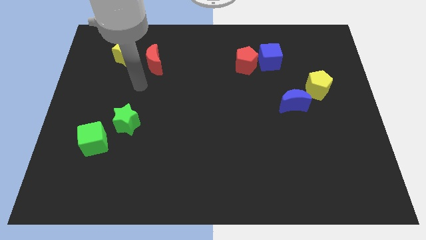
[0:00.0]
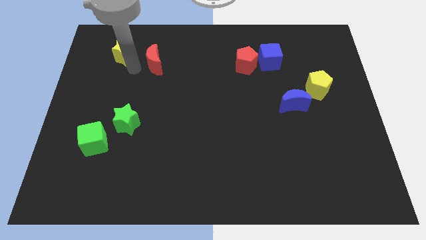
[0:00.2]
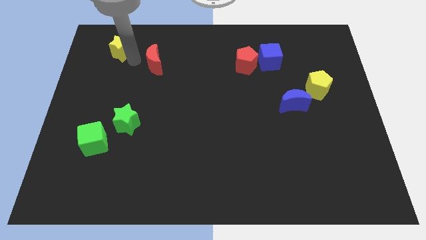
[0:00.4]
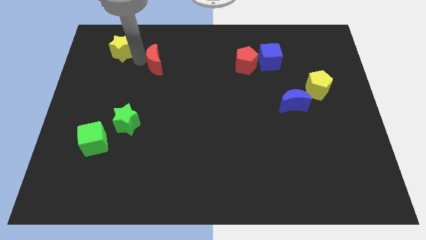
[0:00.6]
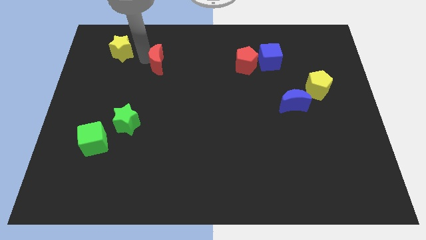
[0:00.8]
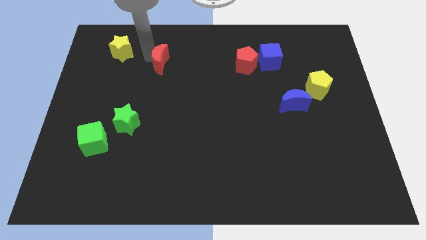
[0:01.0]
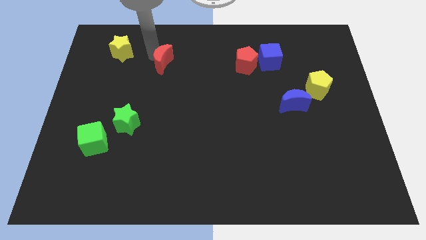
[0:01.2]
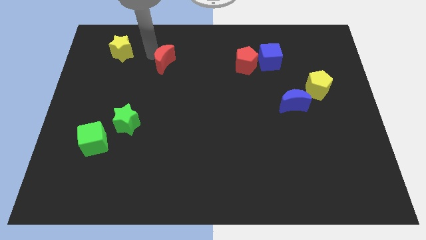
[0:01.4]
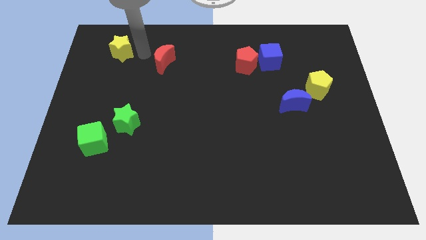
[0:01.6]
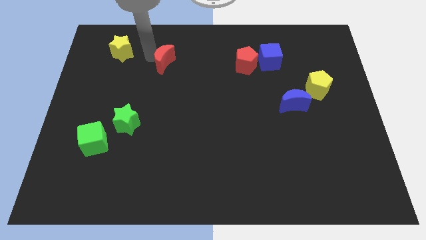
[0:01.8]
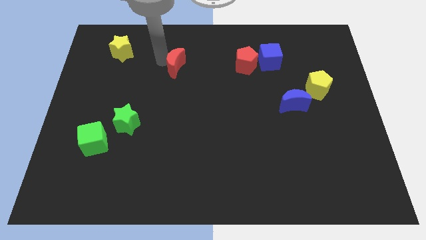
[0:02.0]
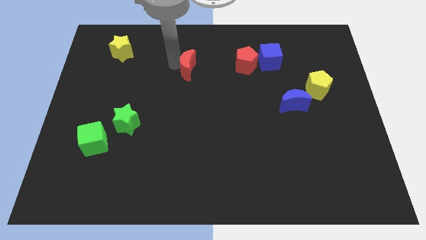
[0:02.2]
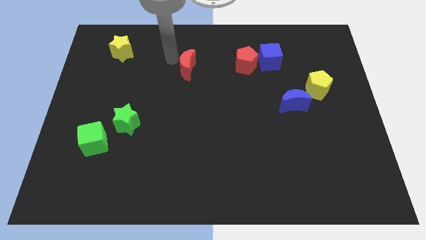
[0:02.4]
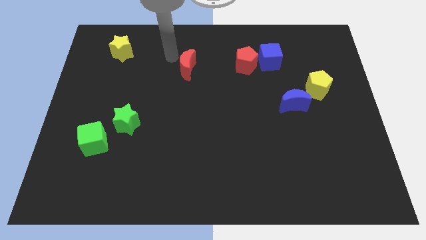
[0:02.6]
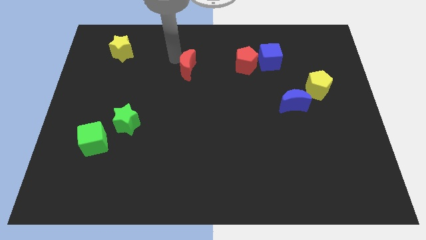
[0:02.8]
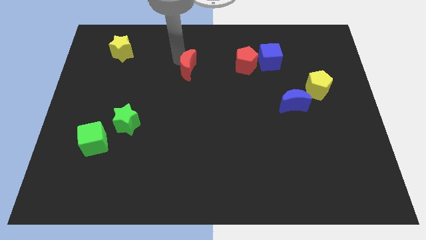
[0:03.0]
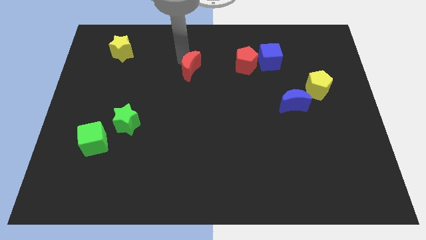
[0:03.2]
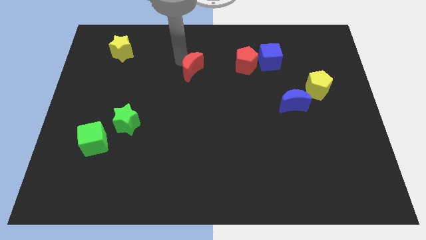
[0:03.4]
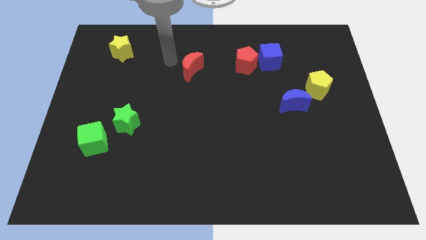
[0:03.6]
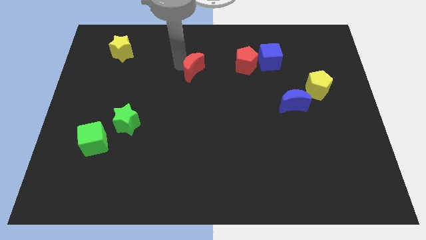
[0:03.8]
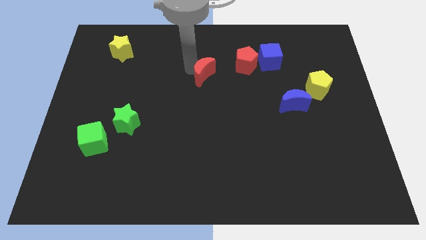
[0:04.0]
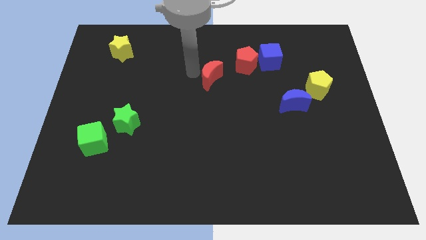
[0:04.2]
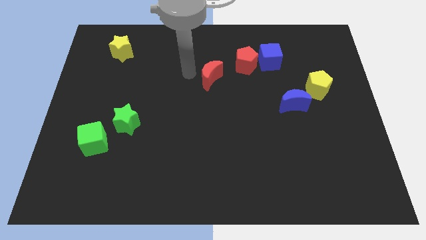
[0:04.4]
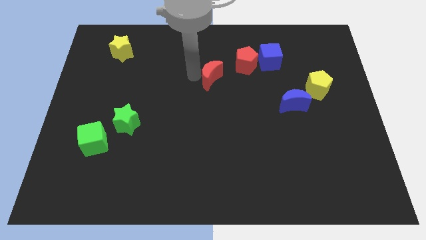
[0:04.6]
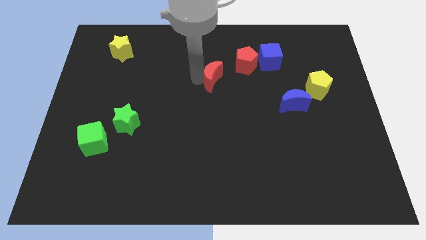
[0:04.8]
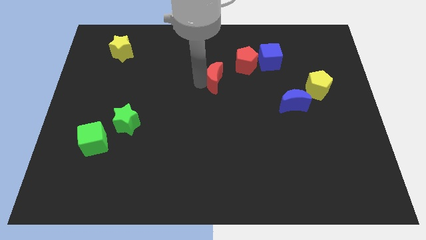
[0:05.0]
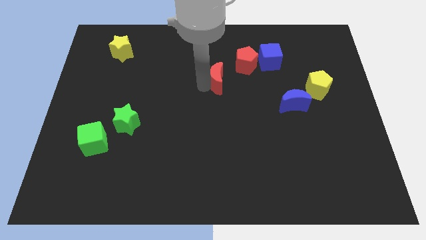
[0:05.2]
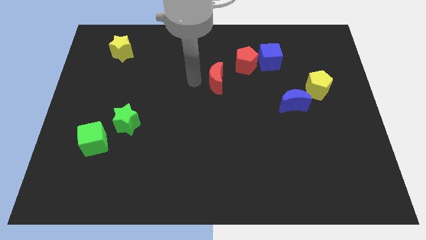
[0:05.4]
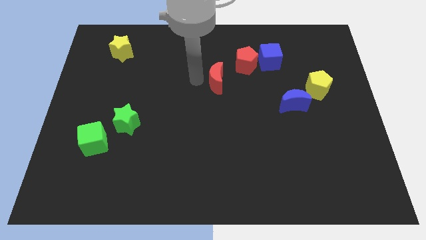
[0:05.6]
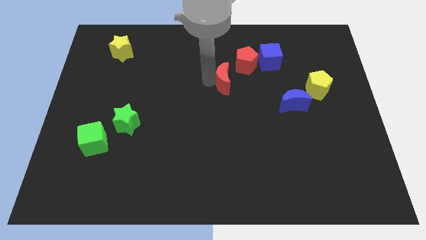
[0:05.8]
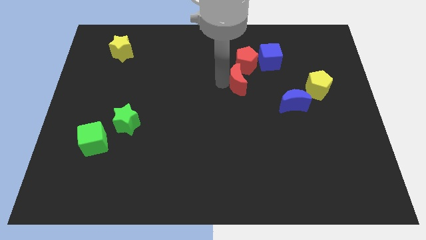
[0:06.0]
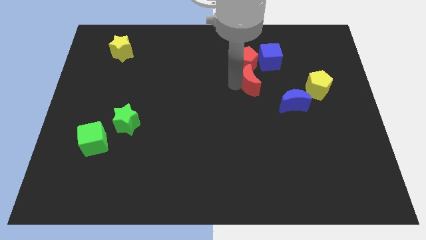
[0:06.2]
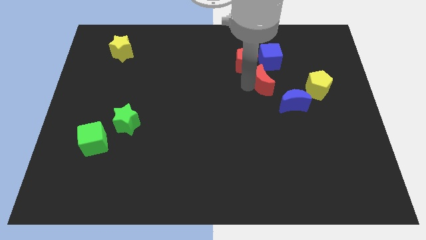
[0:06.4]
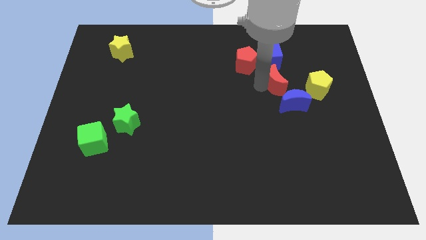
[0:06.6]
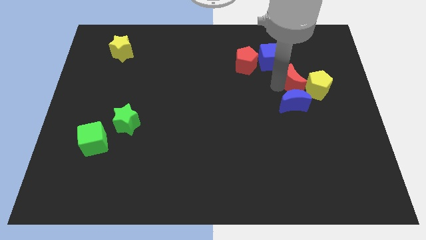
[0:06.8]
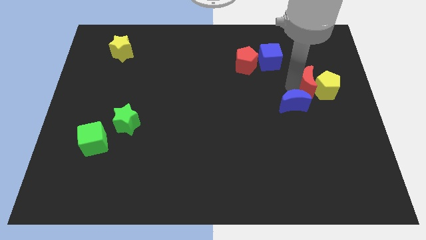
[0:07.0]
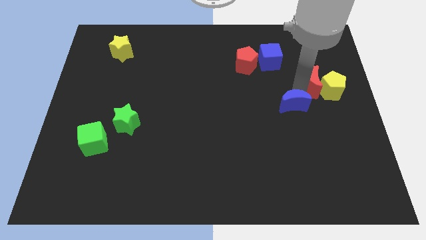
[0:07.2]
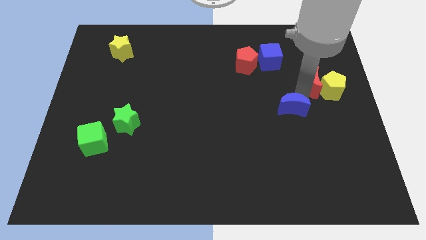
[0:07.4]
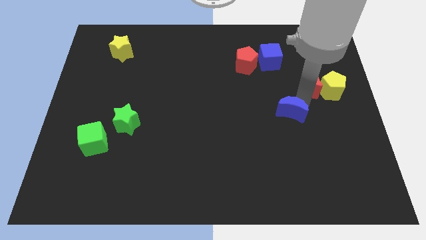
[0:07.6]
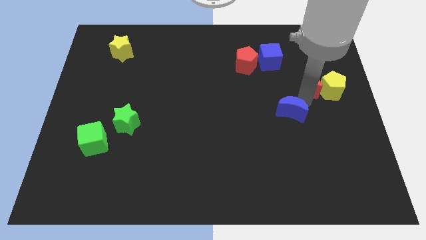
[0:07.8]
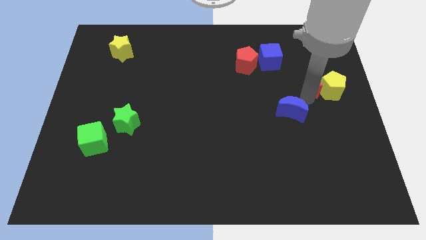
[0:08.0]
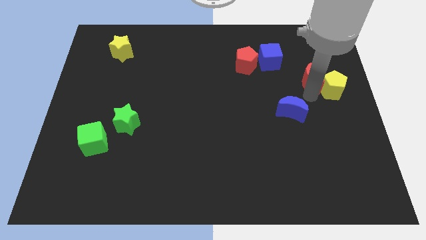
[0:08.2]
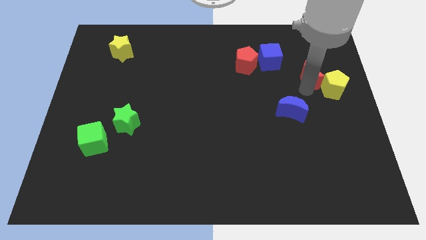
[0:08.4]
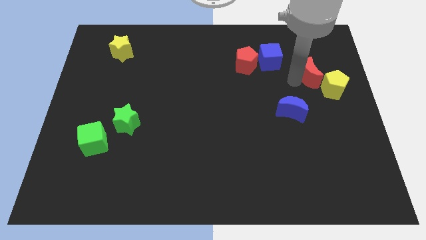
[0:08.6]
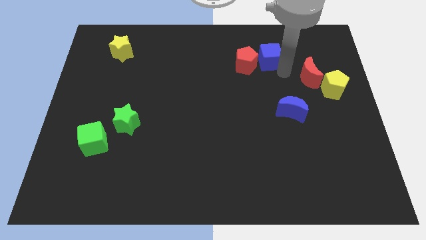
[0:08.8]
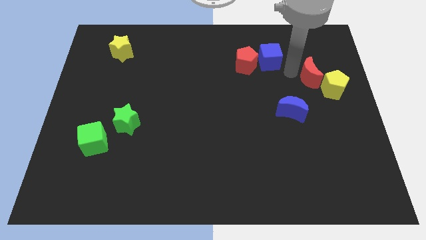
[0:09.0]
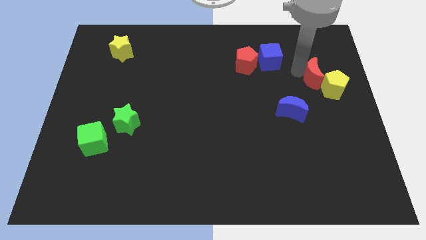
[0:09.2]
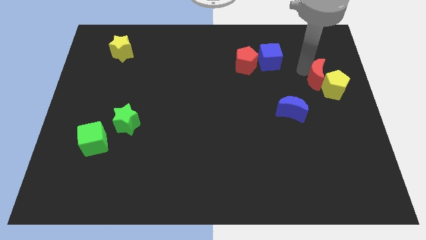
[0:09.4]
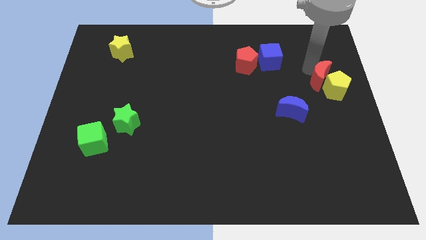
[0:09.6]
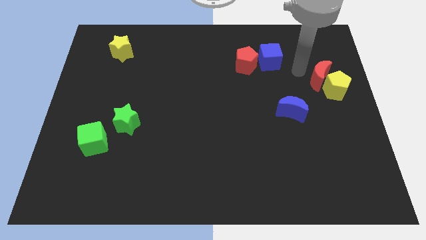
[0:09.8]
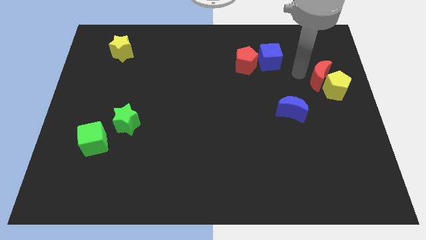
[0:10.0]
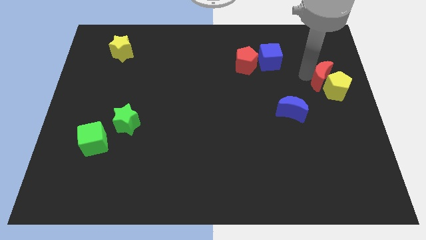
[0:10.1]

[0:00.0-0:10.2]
slide the red moon to the right side of the board

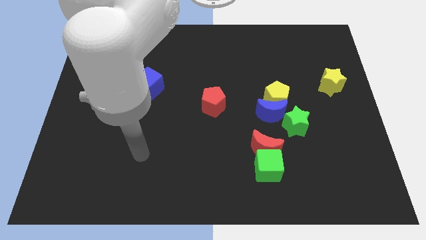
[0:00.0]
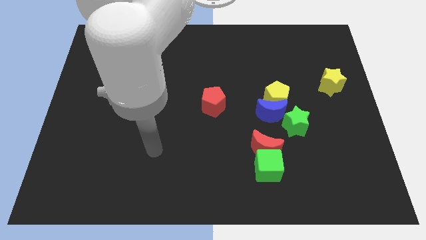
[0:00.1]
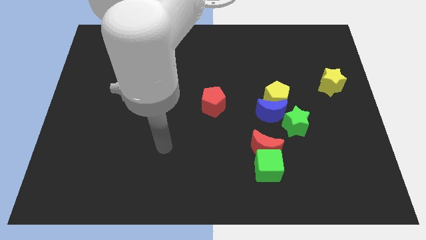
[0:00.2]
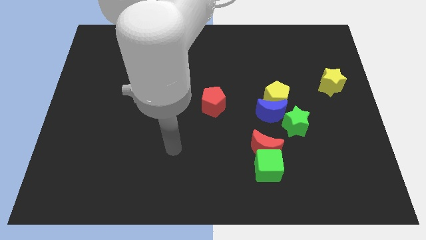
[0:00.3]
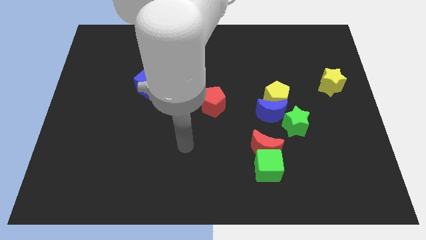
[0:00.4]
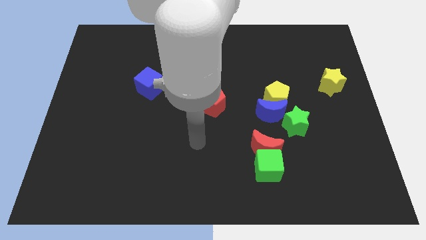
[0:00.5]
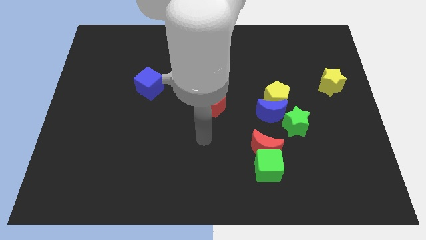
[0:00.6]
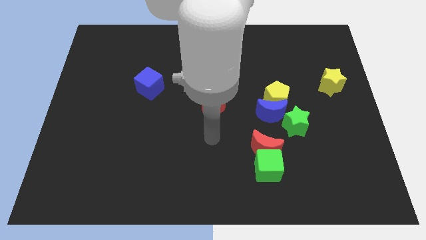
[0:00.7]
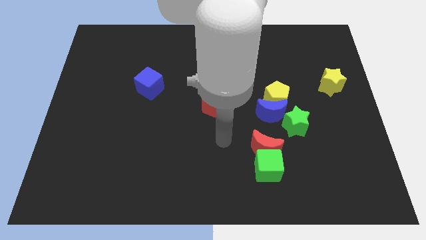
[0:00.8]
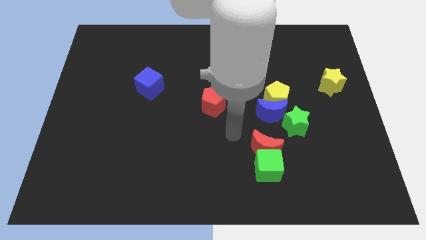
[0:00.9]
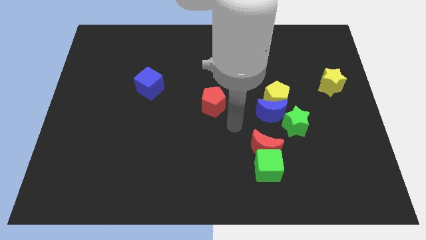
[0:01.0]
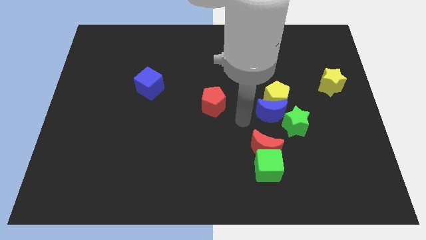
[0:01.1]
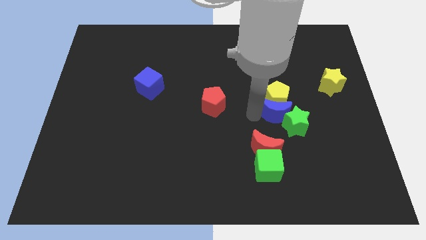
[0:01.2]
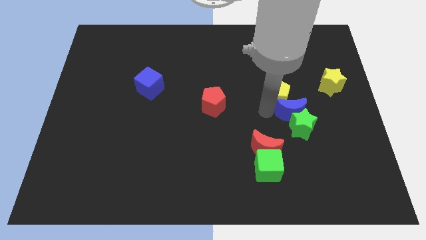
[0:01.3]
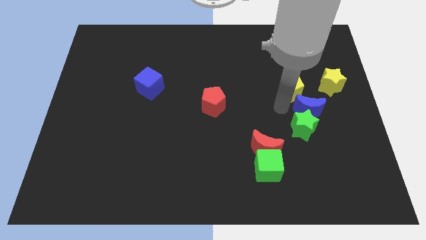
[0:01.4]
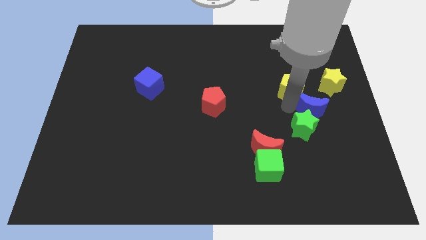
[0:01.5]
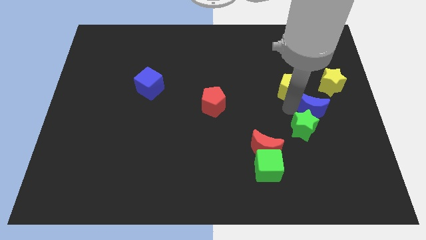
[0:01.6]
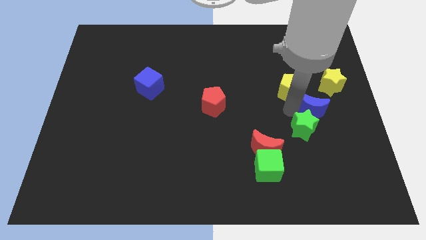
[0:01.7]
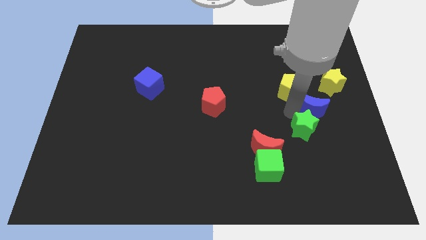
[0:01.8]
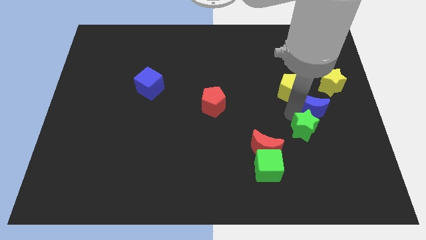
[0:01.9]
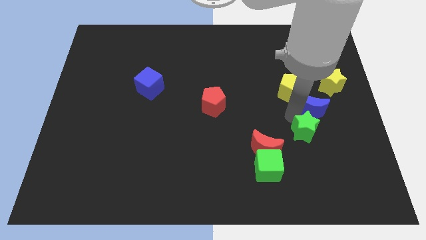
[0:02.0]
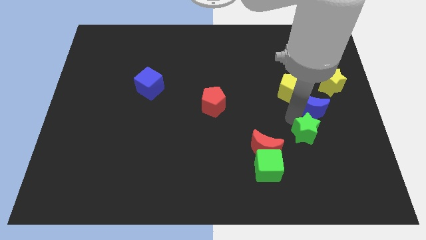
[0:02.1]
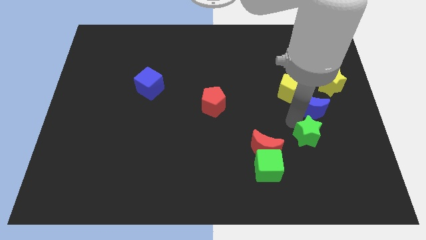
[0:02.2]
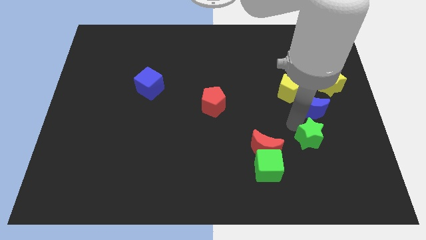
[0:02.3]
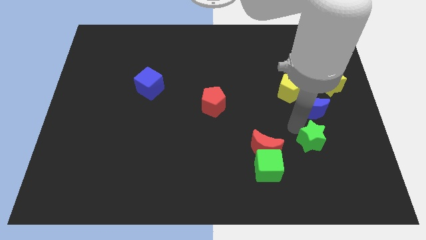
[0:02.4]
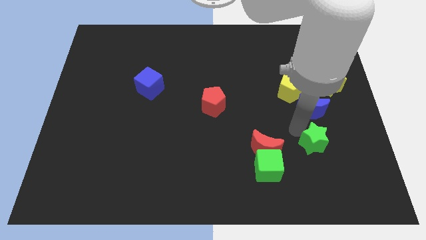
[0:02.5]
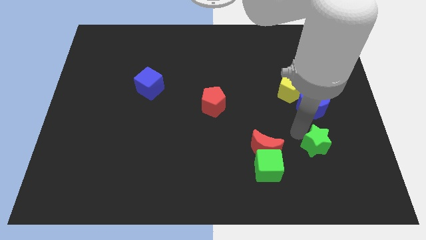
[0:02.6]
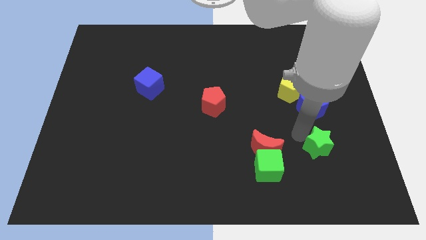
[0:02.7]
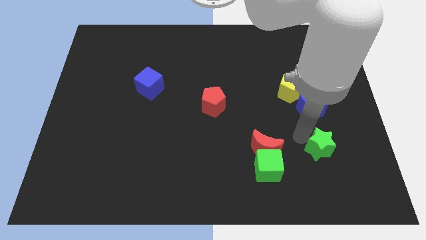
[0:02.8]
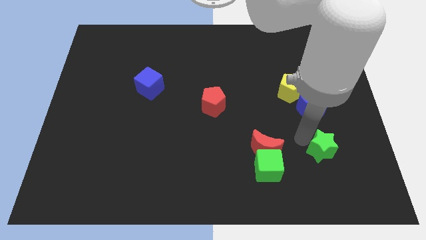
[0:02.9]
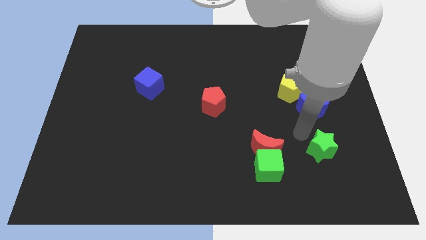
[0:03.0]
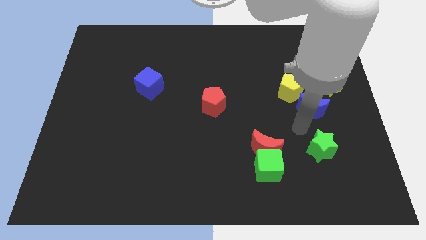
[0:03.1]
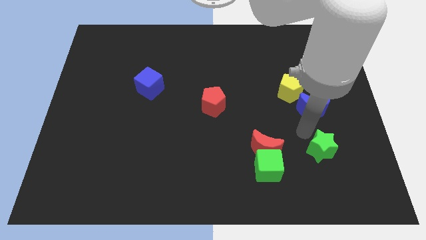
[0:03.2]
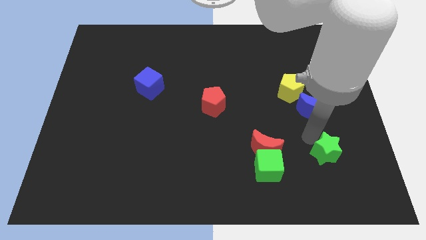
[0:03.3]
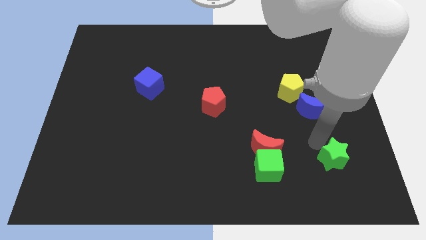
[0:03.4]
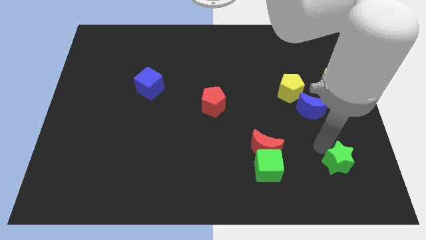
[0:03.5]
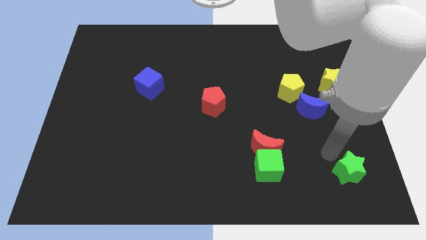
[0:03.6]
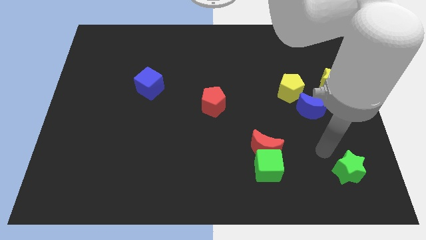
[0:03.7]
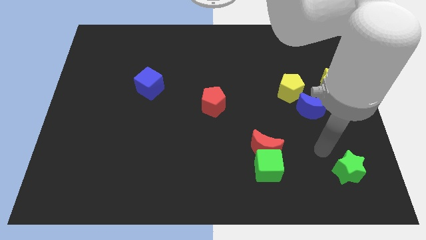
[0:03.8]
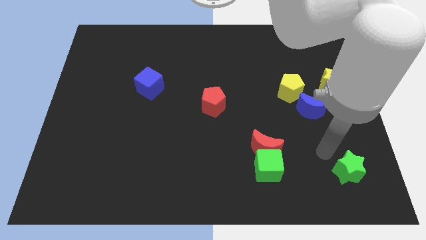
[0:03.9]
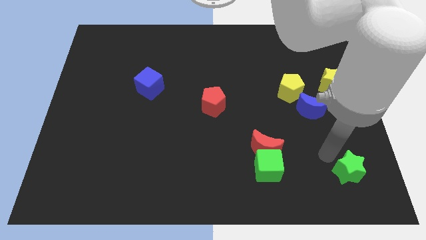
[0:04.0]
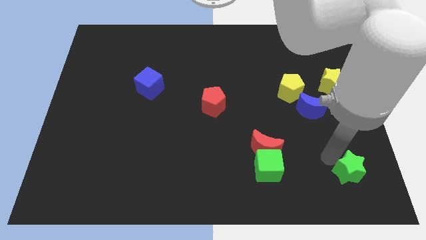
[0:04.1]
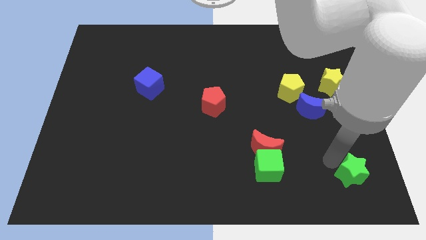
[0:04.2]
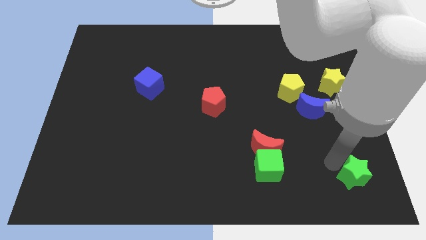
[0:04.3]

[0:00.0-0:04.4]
move the green star to the lower right corner
